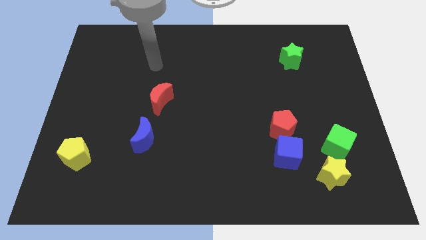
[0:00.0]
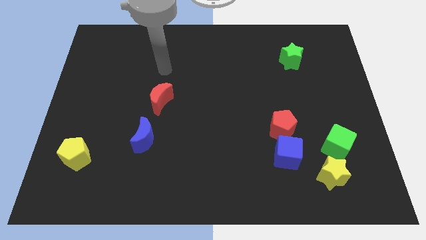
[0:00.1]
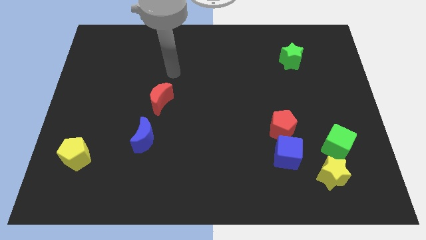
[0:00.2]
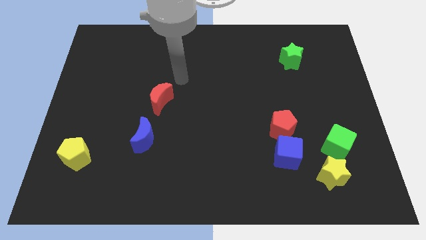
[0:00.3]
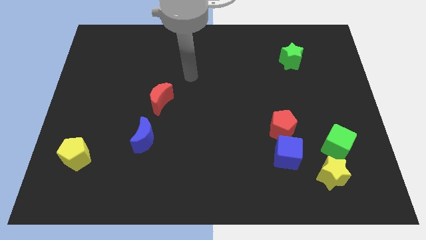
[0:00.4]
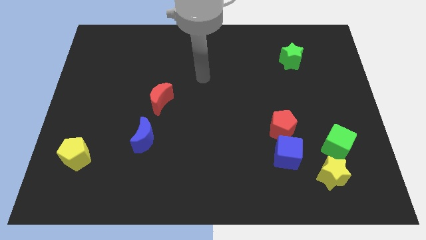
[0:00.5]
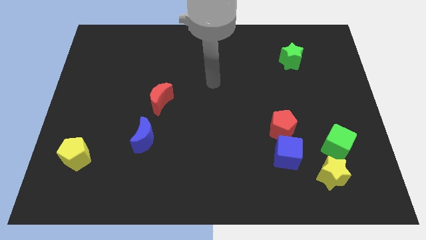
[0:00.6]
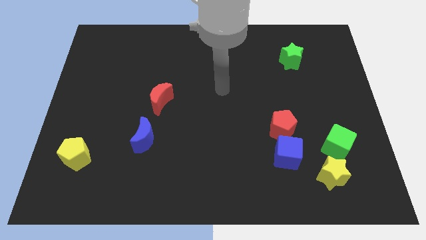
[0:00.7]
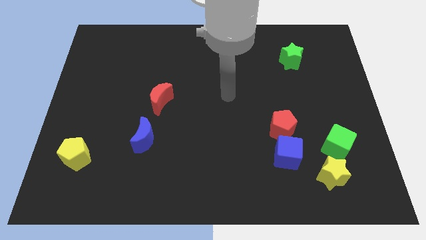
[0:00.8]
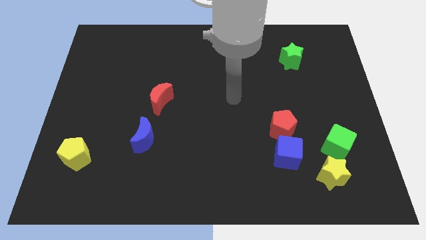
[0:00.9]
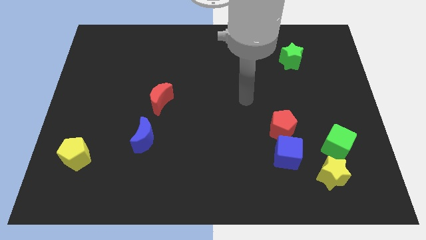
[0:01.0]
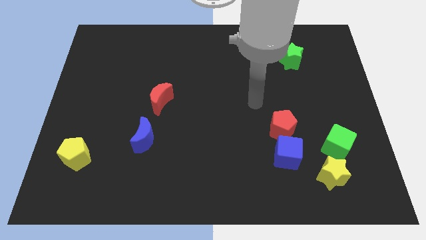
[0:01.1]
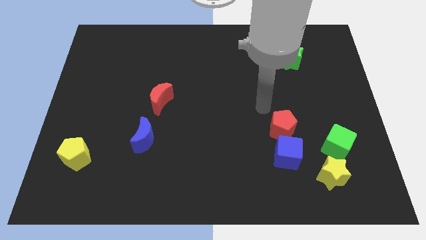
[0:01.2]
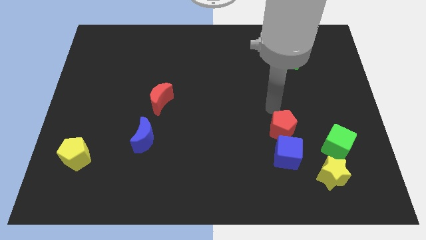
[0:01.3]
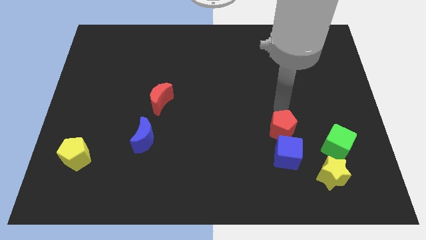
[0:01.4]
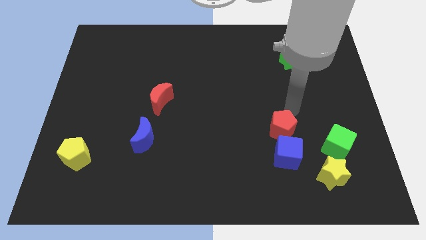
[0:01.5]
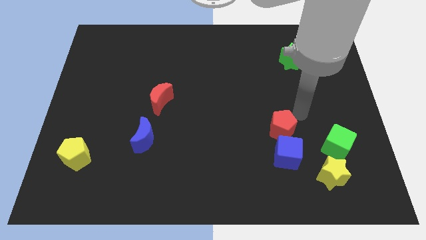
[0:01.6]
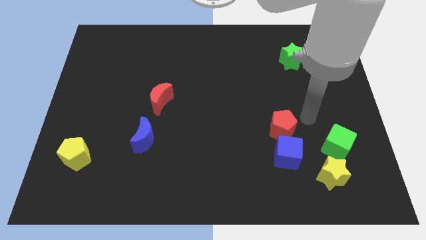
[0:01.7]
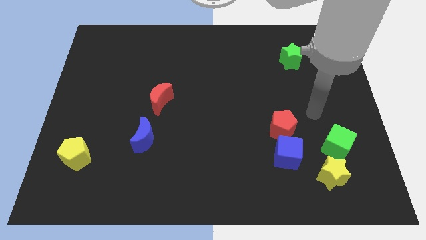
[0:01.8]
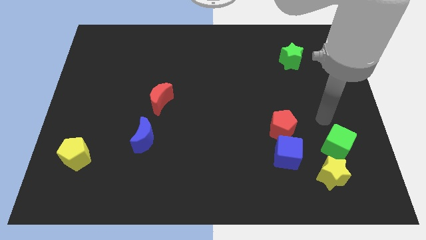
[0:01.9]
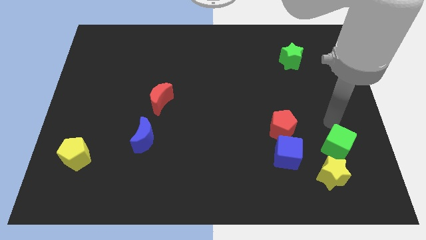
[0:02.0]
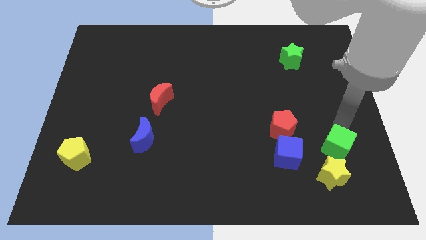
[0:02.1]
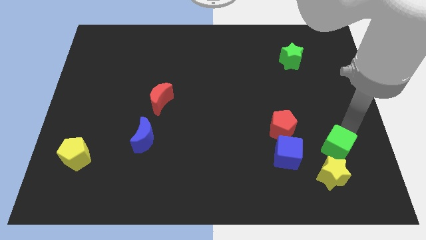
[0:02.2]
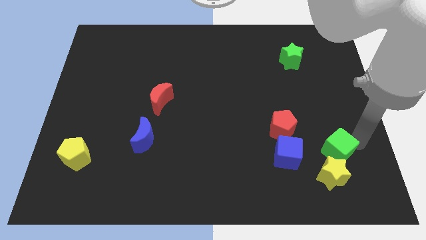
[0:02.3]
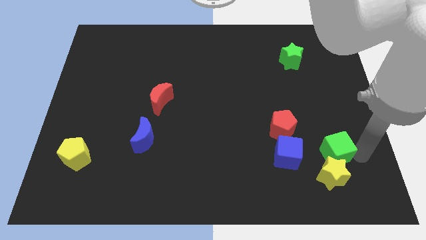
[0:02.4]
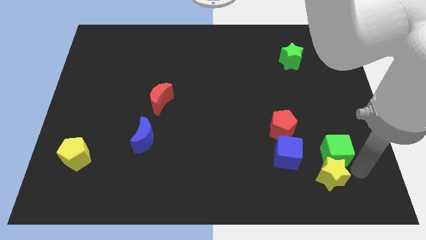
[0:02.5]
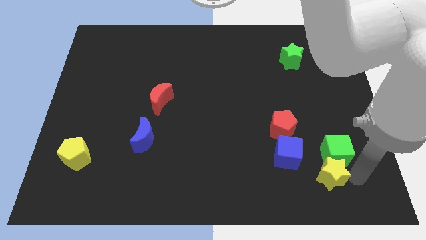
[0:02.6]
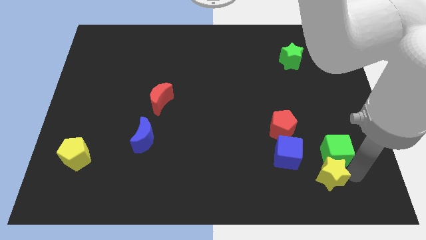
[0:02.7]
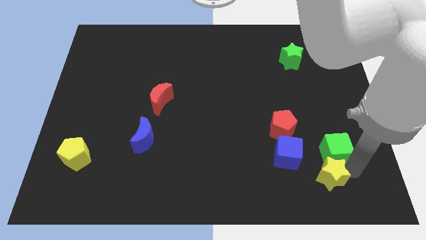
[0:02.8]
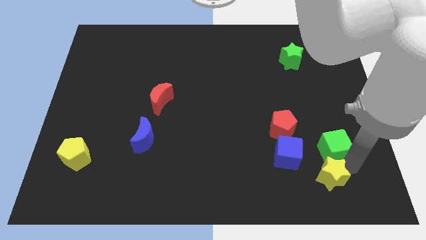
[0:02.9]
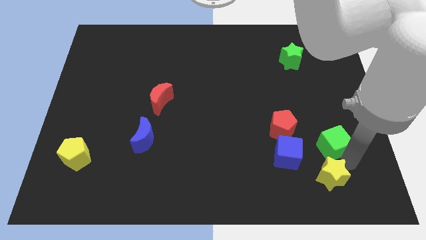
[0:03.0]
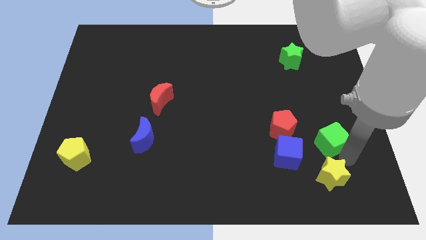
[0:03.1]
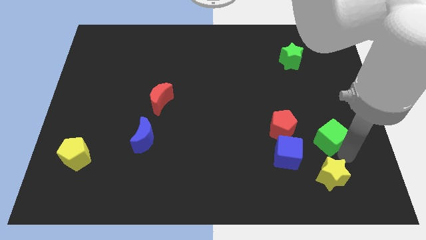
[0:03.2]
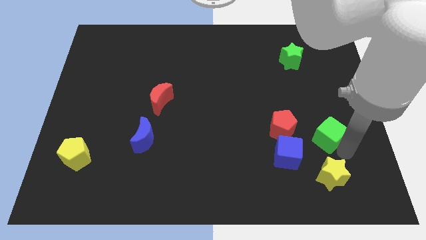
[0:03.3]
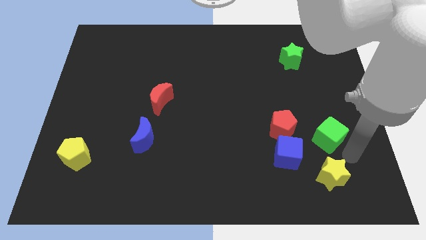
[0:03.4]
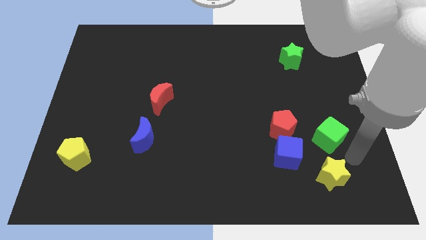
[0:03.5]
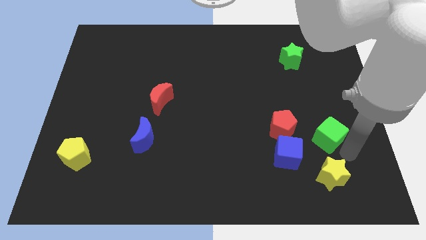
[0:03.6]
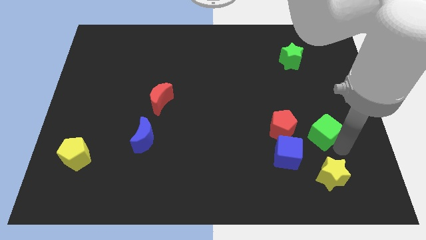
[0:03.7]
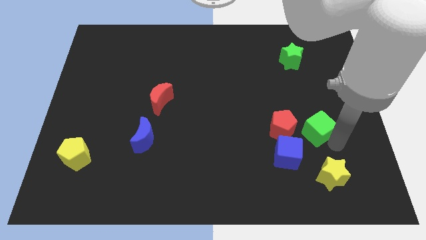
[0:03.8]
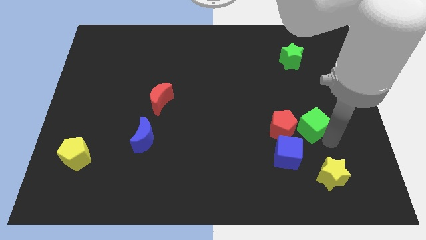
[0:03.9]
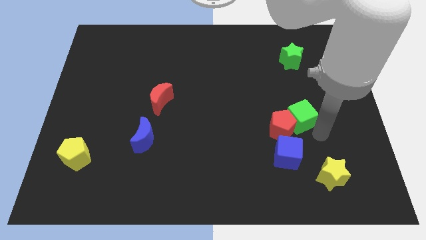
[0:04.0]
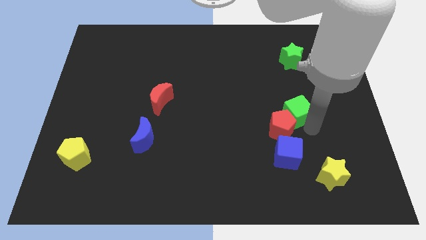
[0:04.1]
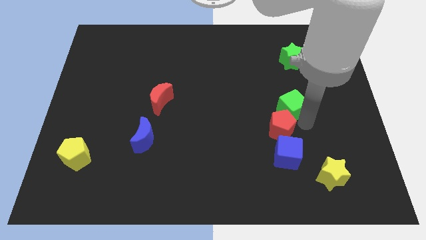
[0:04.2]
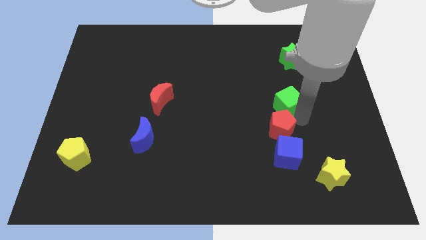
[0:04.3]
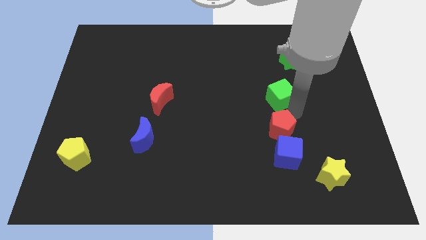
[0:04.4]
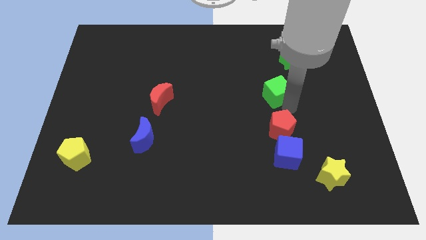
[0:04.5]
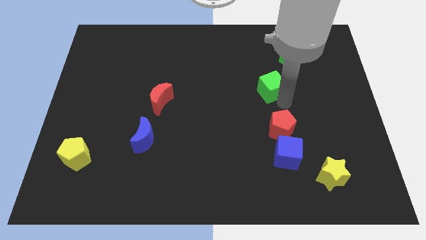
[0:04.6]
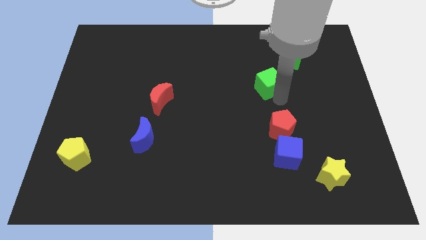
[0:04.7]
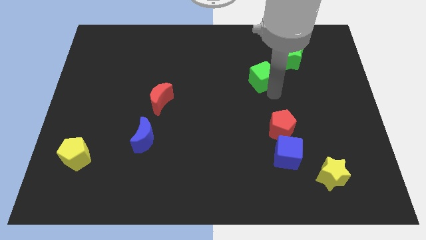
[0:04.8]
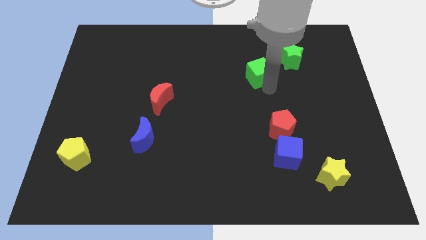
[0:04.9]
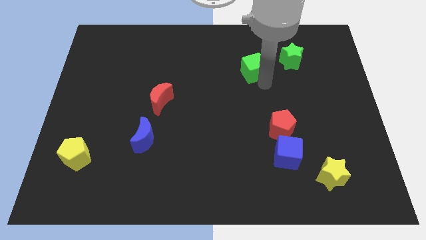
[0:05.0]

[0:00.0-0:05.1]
slide the green cube to the left of the green star

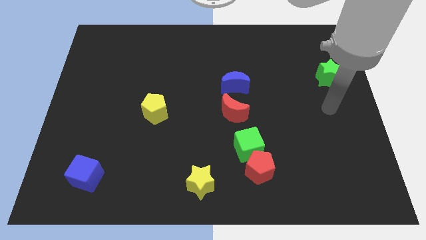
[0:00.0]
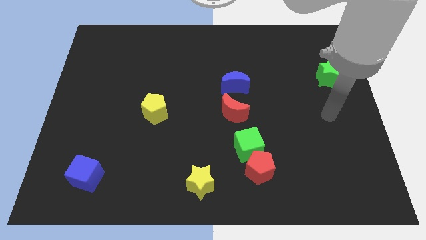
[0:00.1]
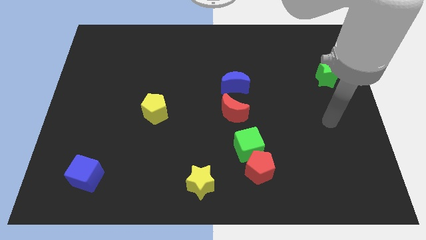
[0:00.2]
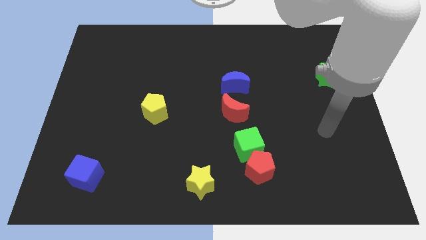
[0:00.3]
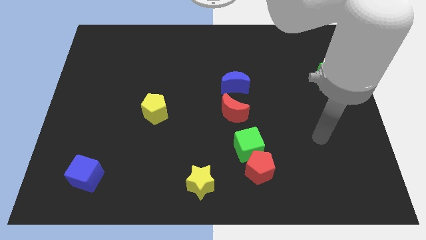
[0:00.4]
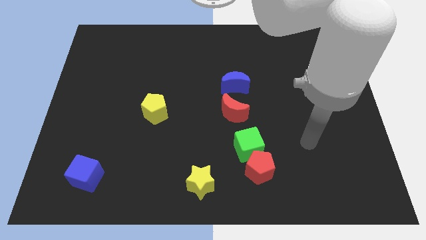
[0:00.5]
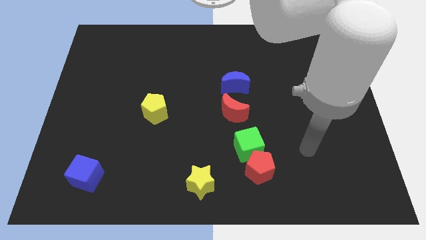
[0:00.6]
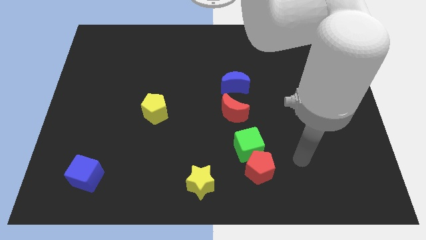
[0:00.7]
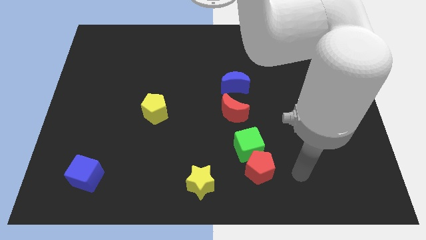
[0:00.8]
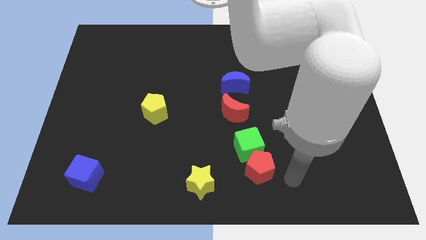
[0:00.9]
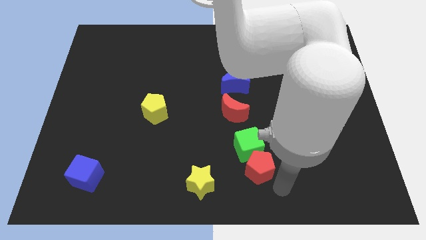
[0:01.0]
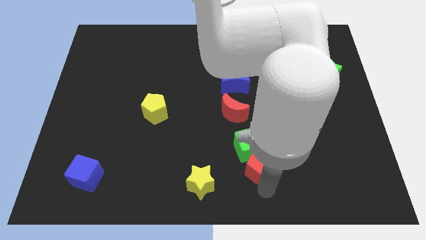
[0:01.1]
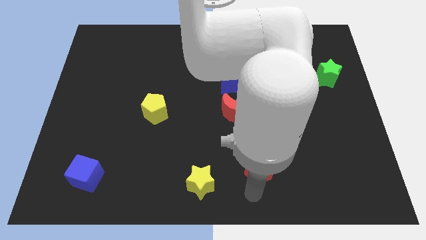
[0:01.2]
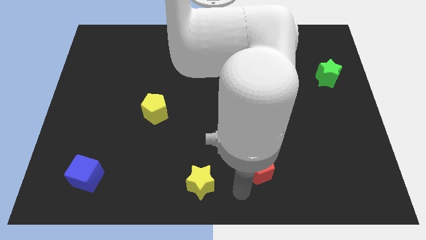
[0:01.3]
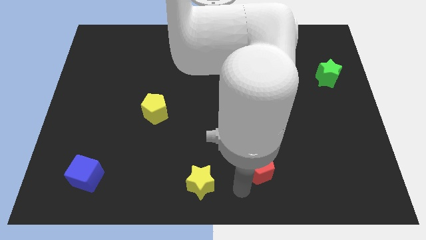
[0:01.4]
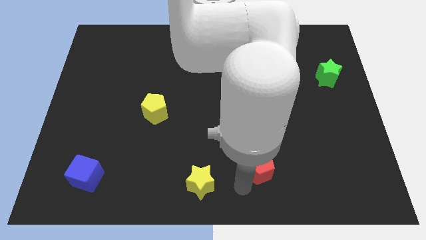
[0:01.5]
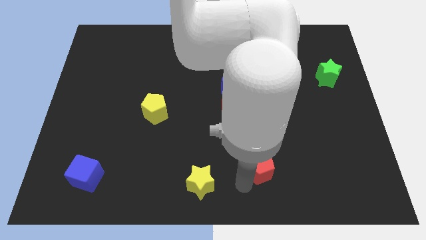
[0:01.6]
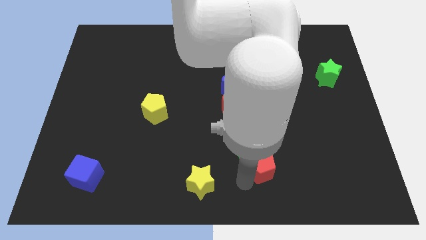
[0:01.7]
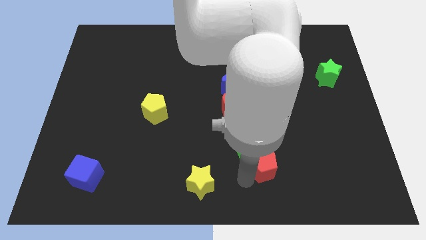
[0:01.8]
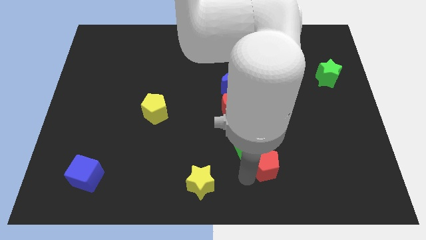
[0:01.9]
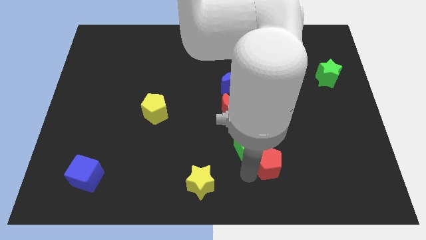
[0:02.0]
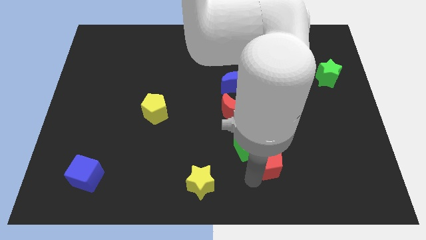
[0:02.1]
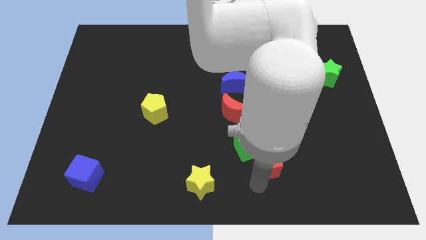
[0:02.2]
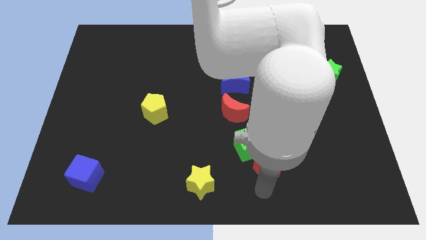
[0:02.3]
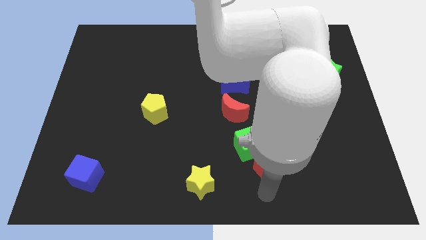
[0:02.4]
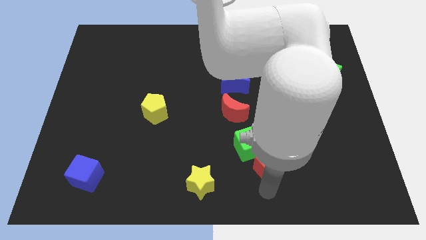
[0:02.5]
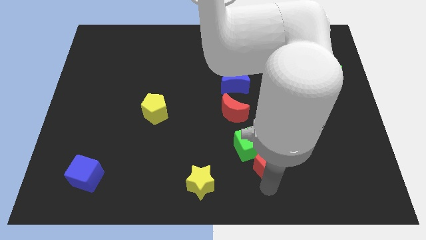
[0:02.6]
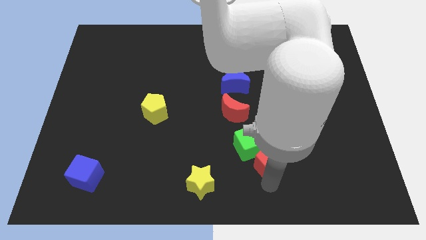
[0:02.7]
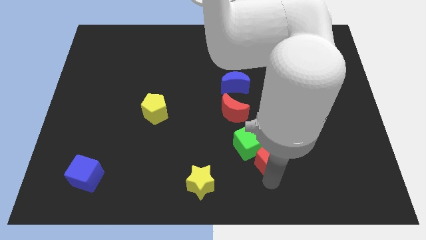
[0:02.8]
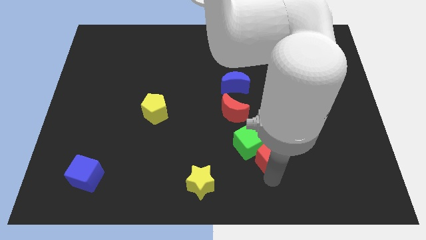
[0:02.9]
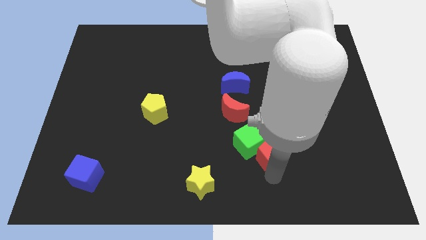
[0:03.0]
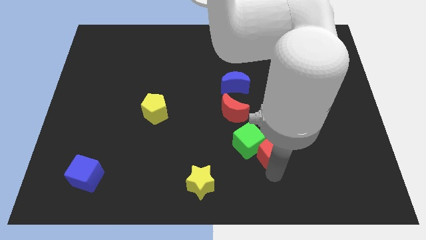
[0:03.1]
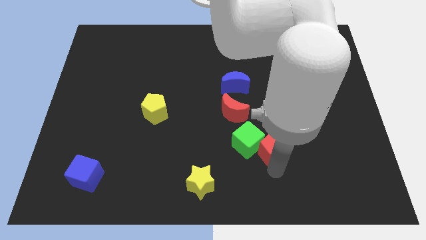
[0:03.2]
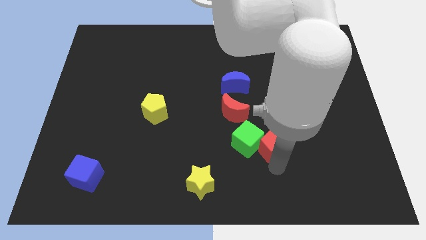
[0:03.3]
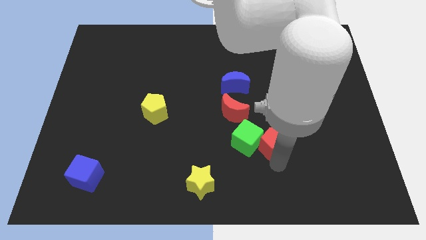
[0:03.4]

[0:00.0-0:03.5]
move the red pentagon diagonally up and to the right of the green cube
